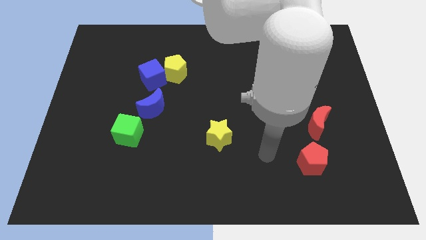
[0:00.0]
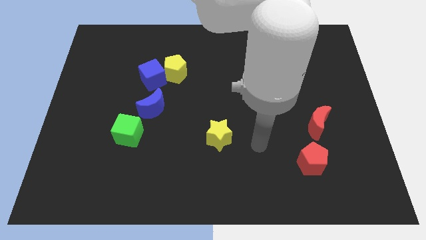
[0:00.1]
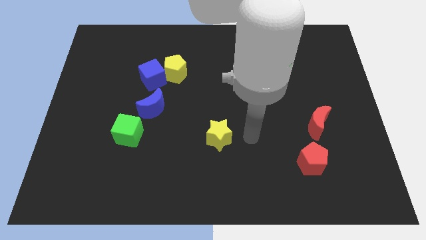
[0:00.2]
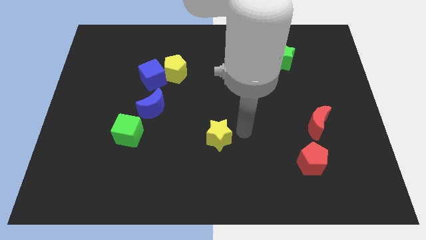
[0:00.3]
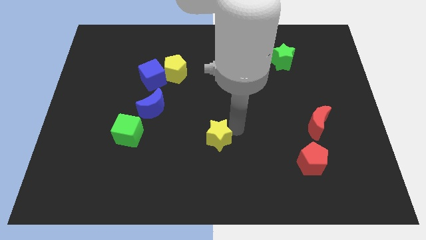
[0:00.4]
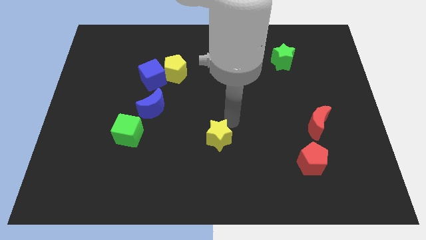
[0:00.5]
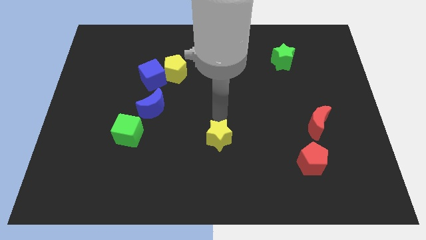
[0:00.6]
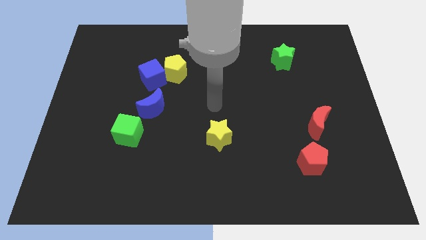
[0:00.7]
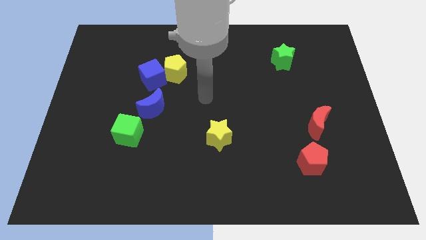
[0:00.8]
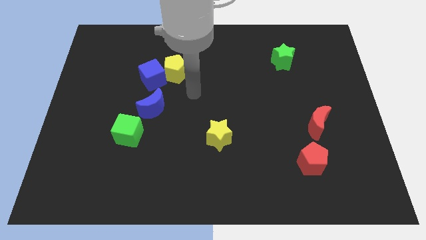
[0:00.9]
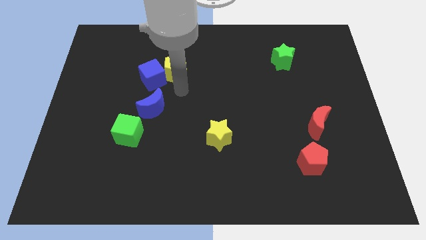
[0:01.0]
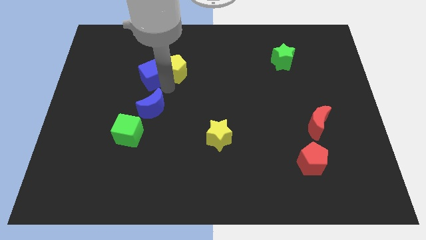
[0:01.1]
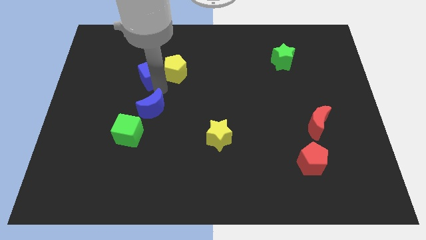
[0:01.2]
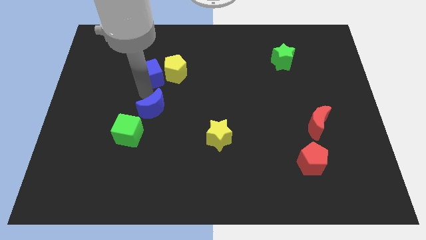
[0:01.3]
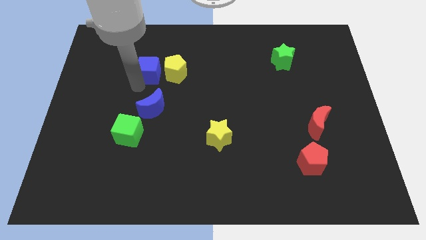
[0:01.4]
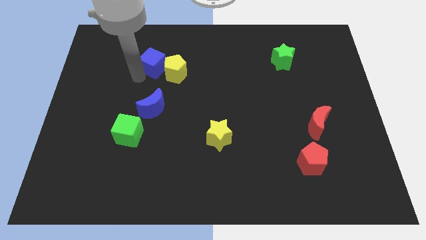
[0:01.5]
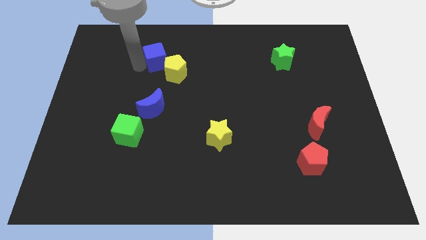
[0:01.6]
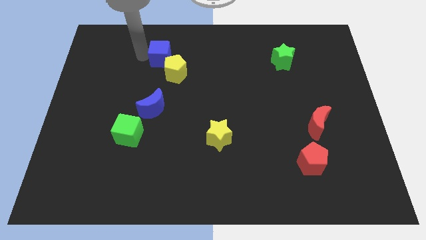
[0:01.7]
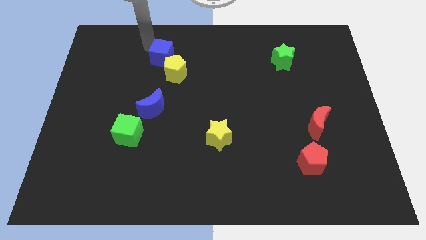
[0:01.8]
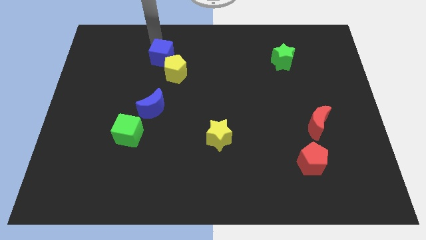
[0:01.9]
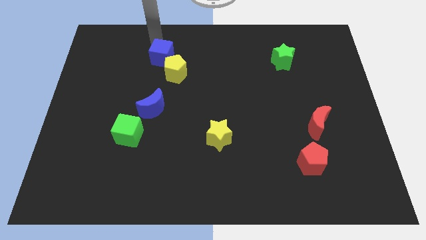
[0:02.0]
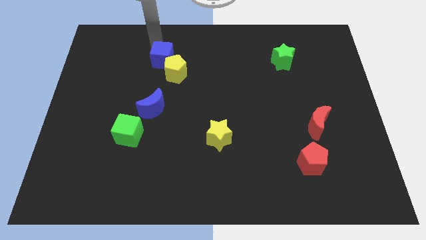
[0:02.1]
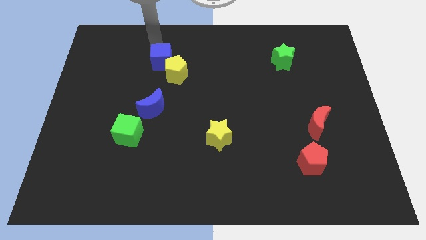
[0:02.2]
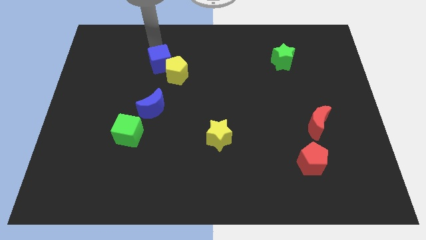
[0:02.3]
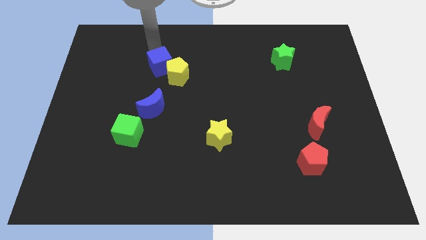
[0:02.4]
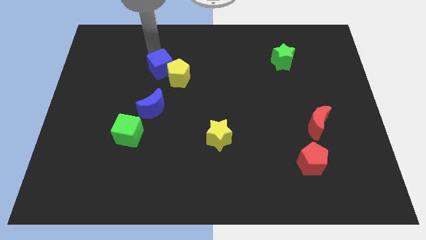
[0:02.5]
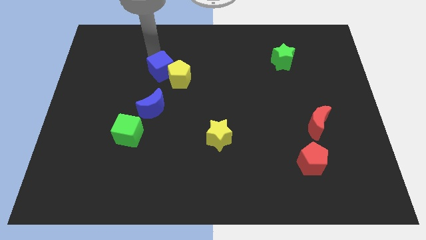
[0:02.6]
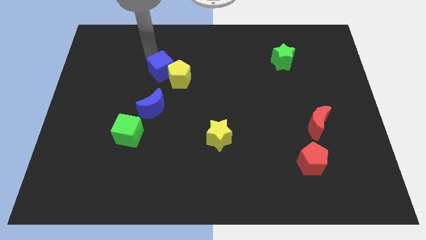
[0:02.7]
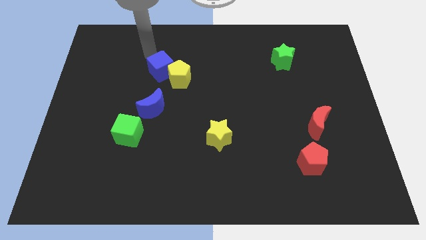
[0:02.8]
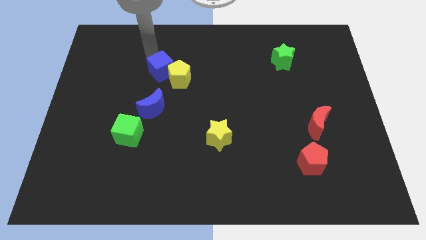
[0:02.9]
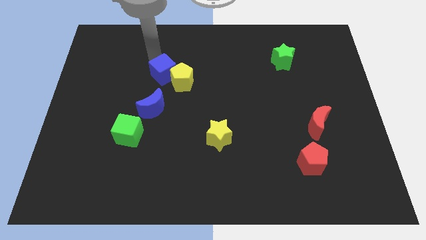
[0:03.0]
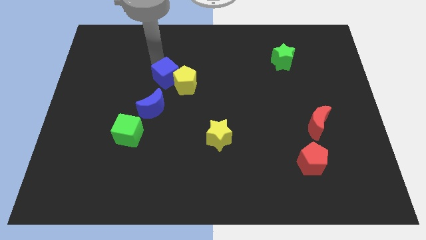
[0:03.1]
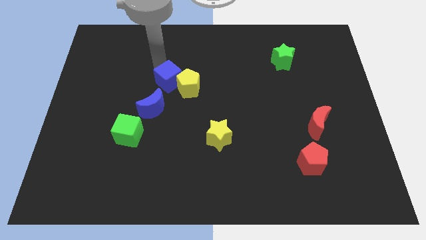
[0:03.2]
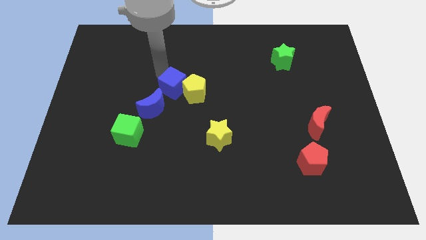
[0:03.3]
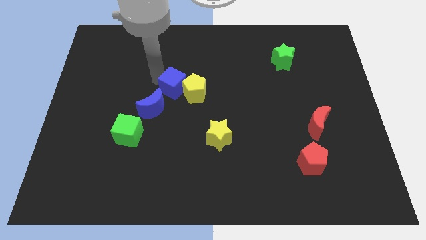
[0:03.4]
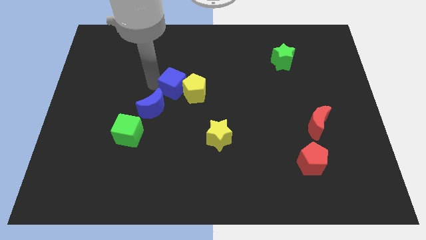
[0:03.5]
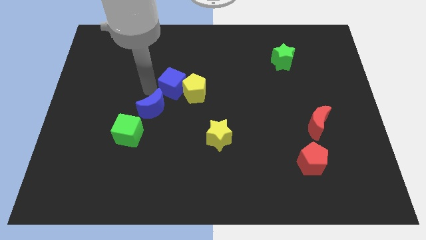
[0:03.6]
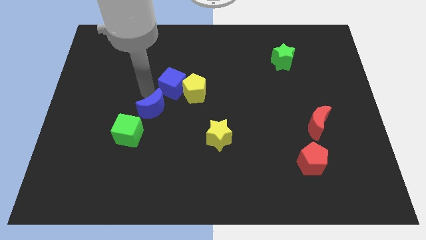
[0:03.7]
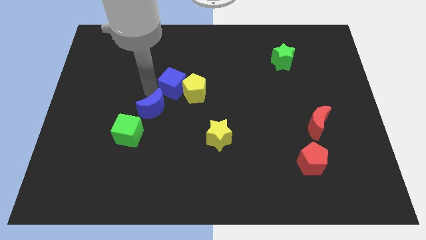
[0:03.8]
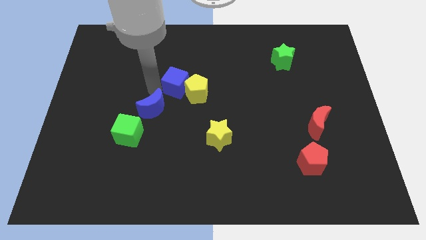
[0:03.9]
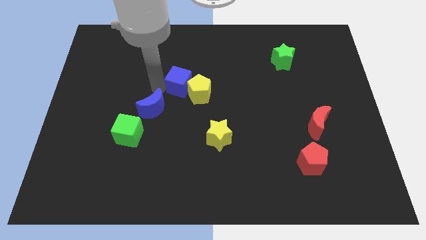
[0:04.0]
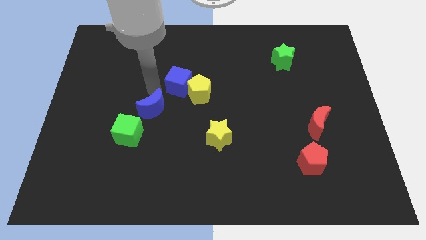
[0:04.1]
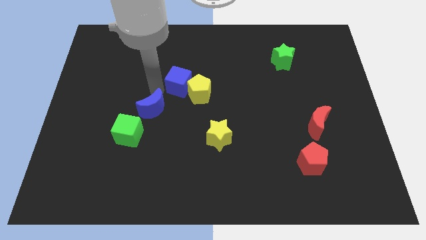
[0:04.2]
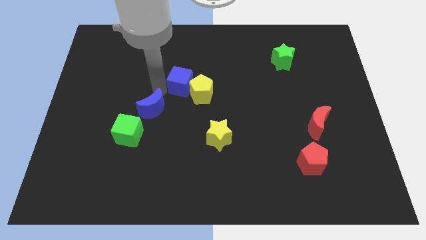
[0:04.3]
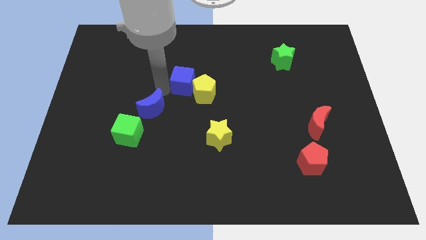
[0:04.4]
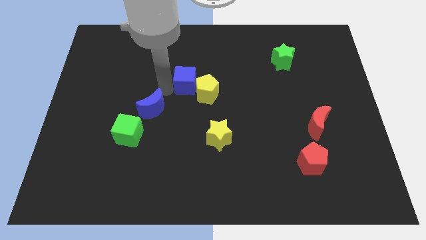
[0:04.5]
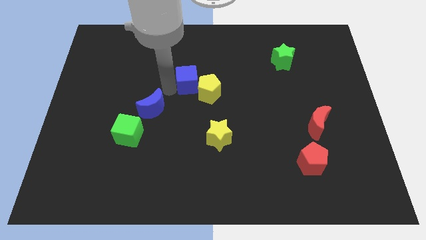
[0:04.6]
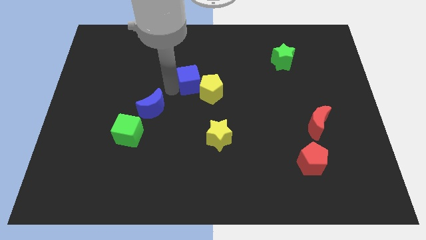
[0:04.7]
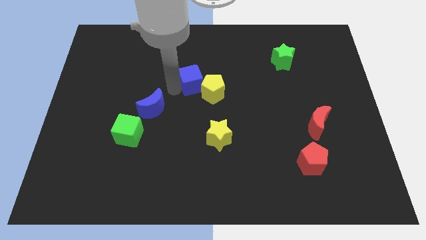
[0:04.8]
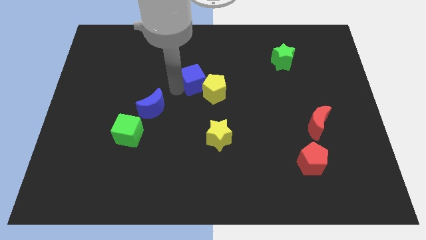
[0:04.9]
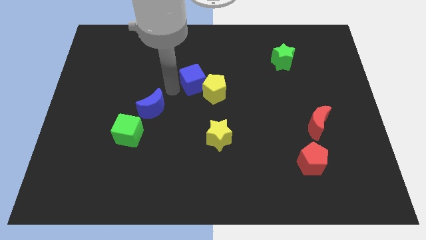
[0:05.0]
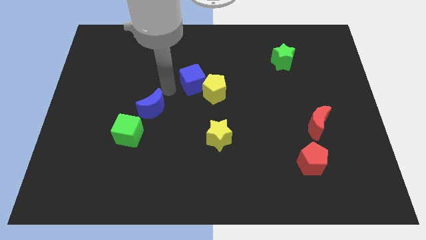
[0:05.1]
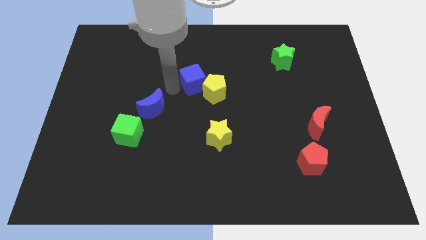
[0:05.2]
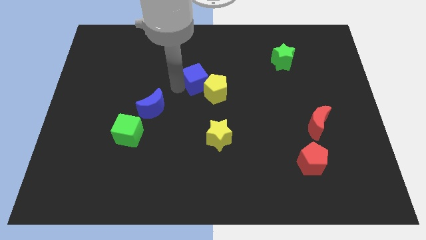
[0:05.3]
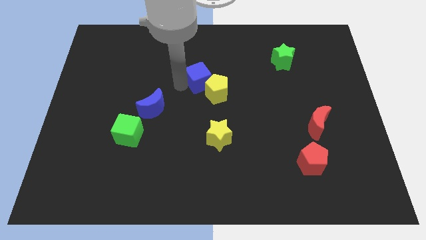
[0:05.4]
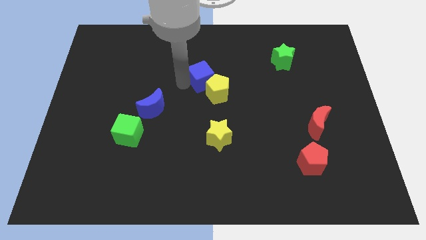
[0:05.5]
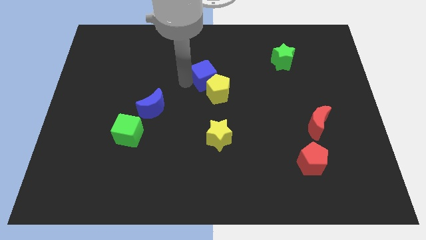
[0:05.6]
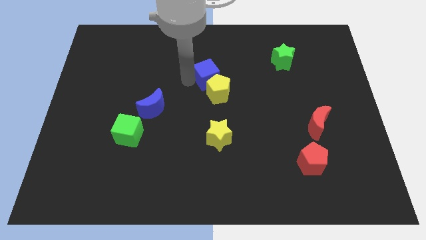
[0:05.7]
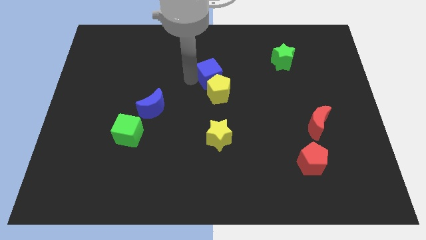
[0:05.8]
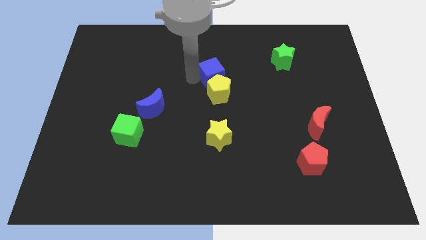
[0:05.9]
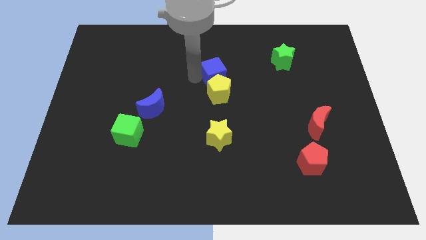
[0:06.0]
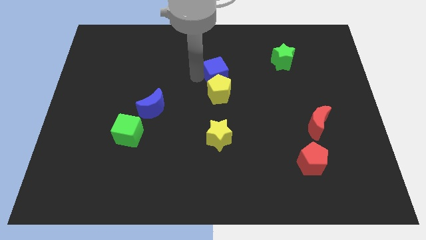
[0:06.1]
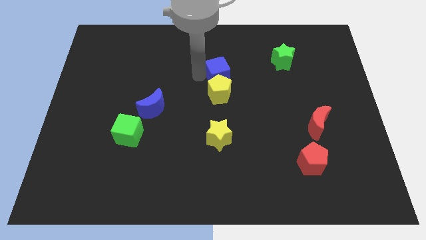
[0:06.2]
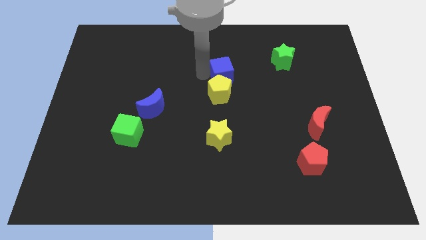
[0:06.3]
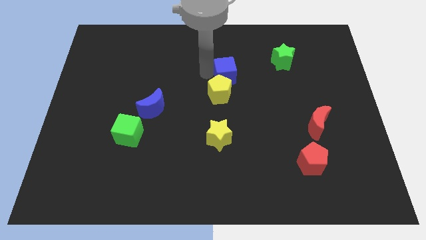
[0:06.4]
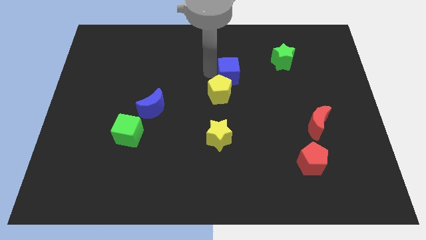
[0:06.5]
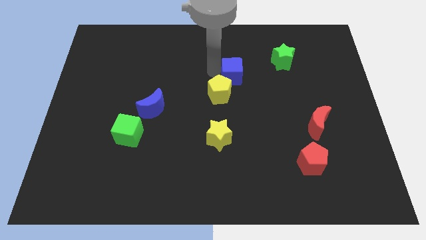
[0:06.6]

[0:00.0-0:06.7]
move the blue cube to the right

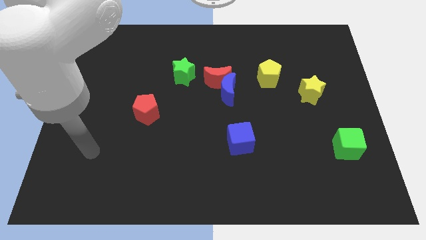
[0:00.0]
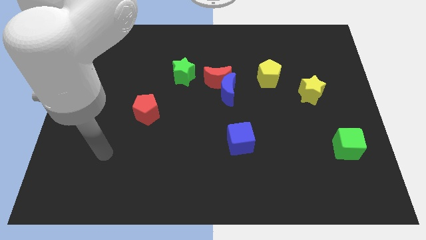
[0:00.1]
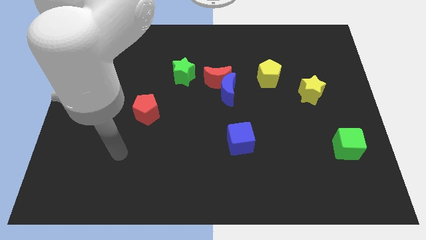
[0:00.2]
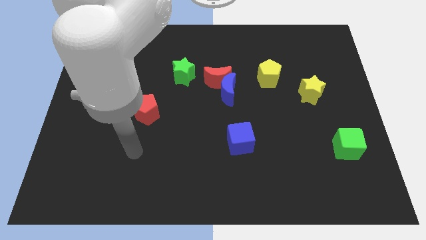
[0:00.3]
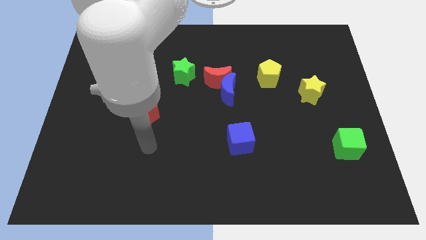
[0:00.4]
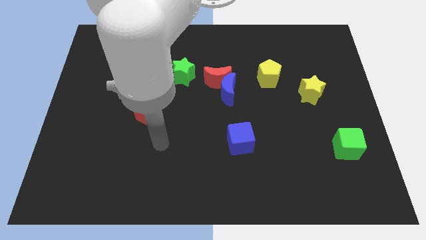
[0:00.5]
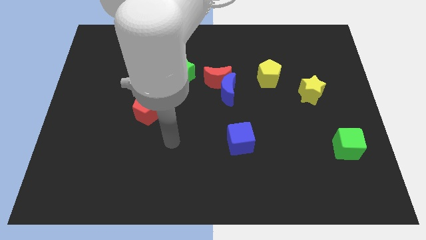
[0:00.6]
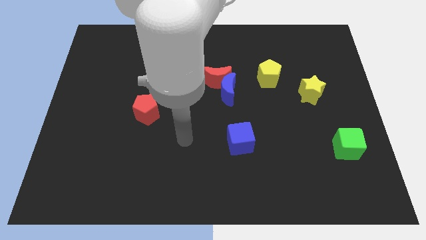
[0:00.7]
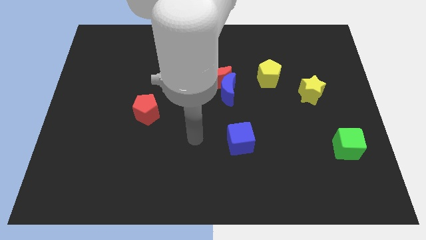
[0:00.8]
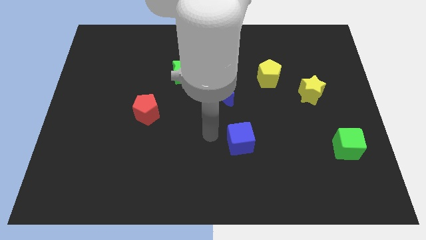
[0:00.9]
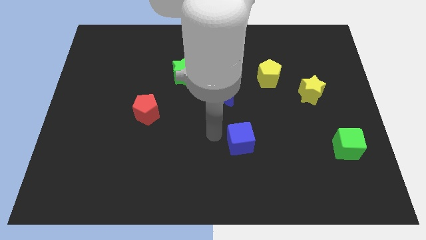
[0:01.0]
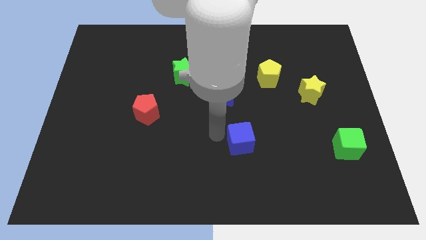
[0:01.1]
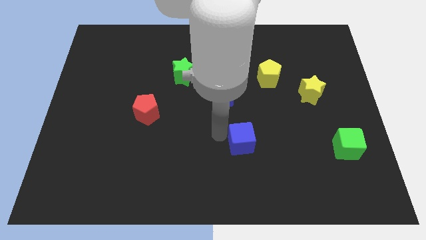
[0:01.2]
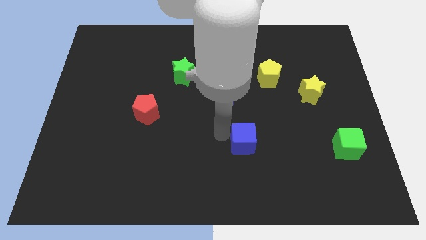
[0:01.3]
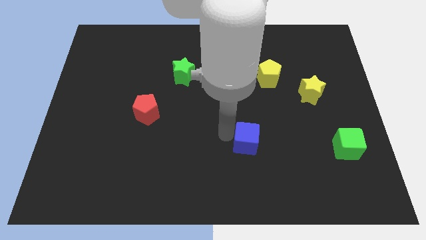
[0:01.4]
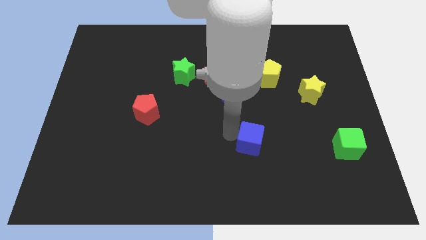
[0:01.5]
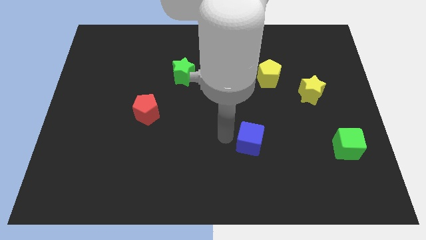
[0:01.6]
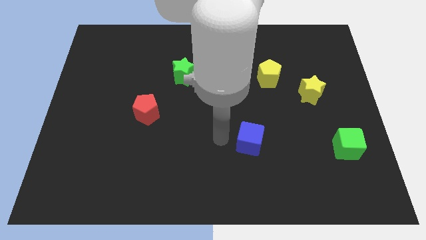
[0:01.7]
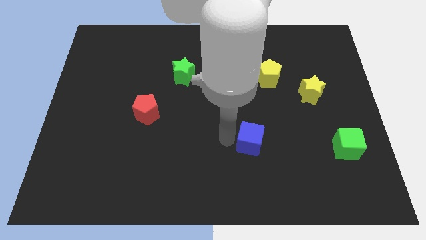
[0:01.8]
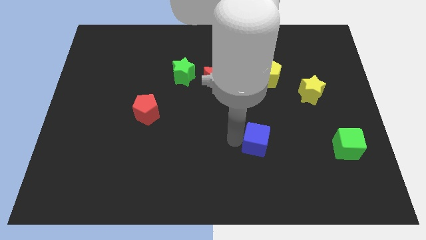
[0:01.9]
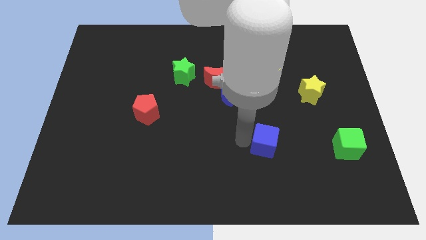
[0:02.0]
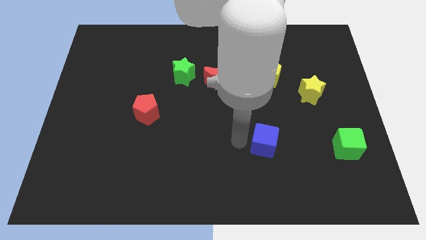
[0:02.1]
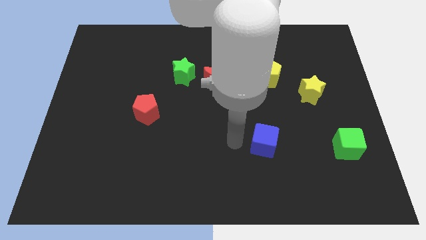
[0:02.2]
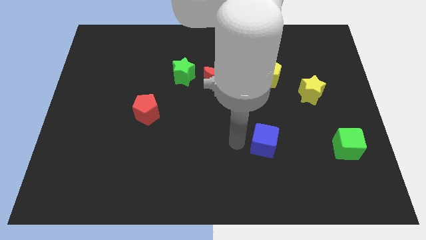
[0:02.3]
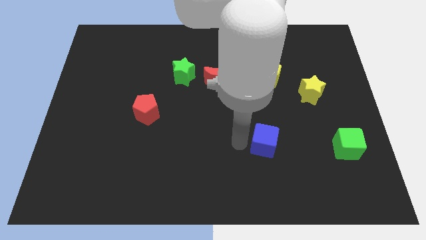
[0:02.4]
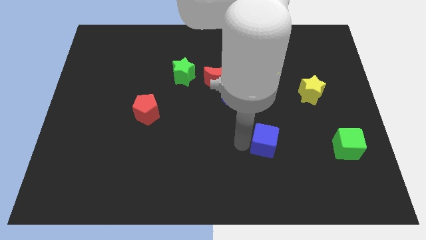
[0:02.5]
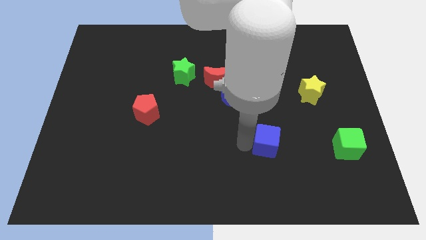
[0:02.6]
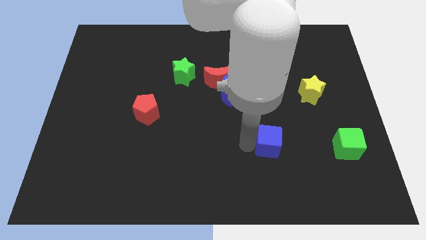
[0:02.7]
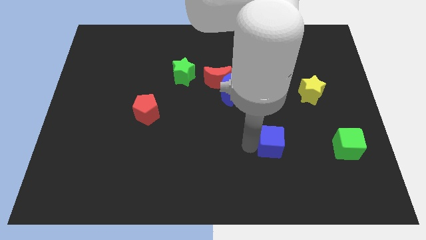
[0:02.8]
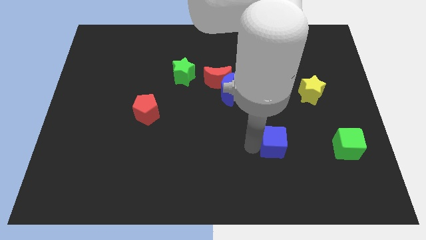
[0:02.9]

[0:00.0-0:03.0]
move the blue cube right slightly
